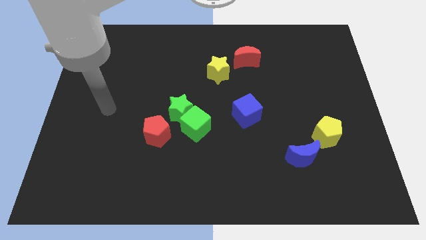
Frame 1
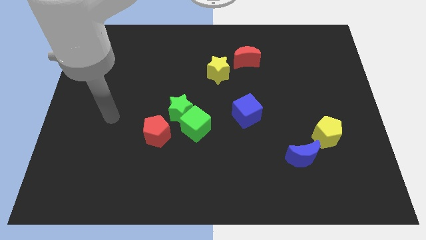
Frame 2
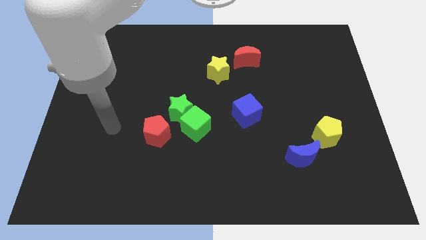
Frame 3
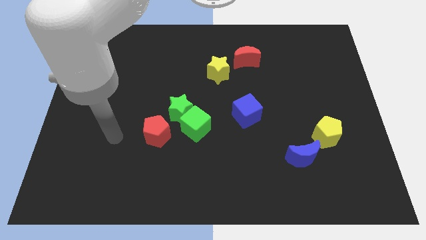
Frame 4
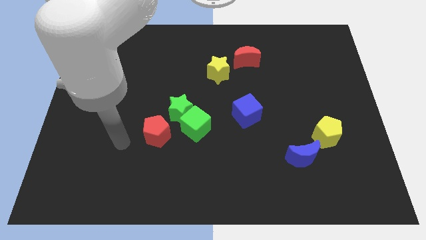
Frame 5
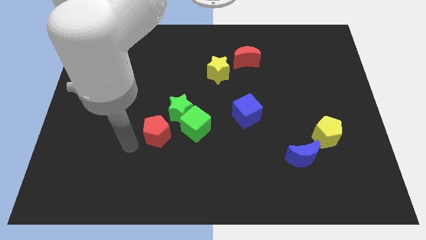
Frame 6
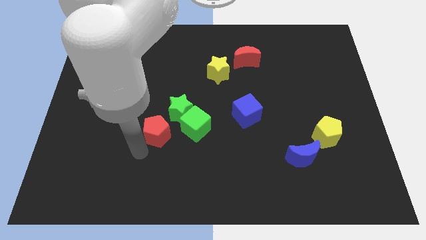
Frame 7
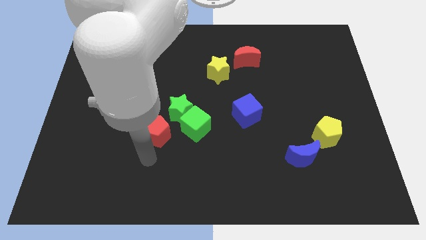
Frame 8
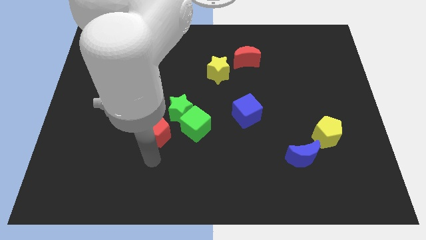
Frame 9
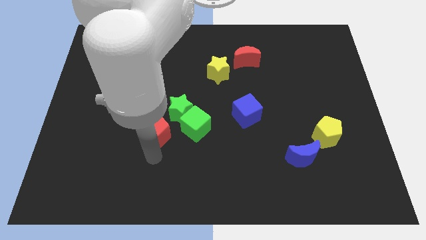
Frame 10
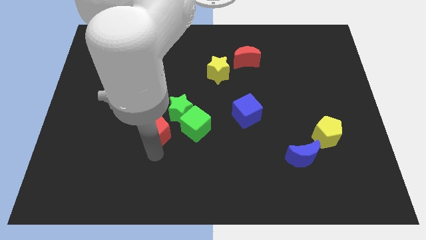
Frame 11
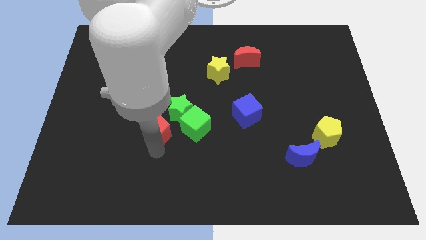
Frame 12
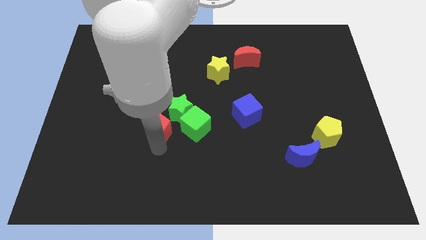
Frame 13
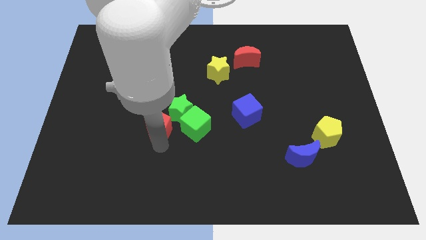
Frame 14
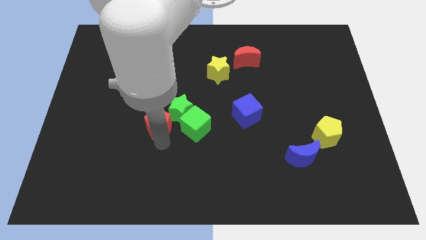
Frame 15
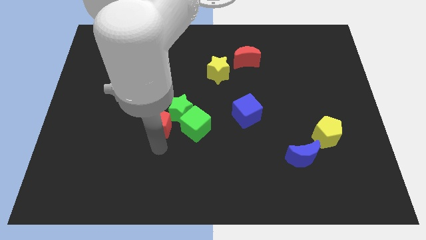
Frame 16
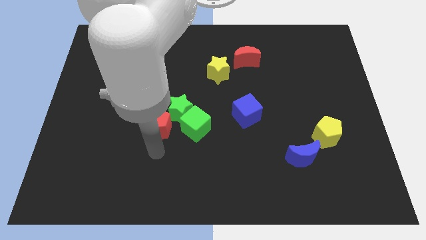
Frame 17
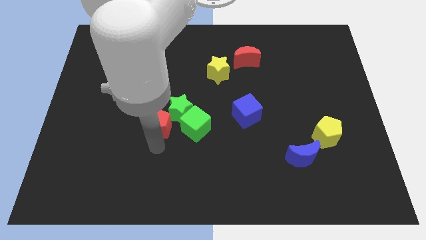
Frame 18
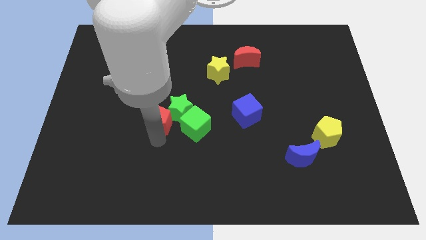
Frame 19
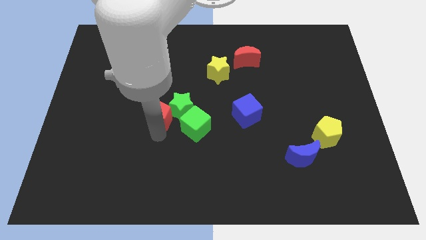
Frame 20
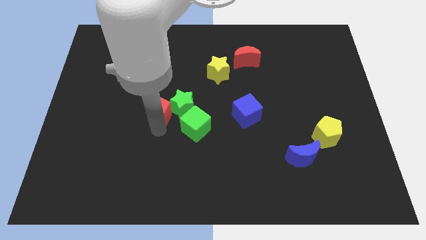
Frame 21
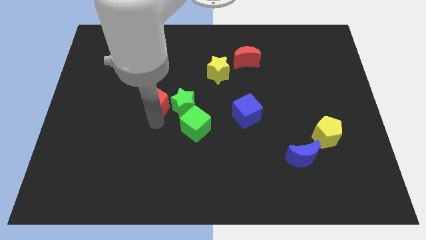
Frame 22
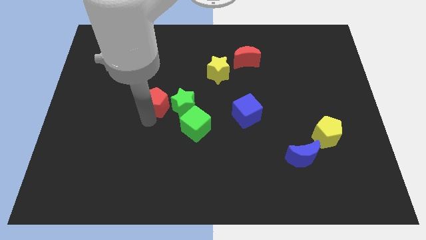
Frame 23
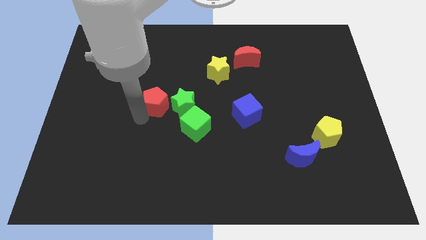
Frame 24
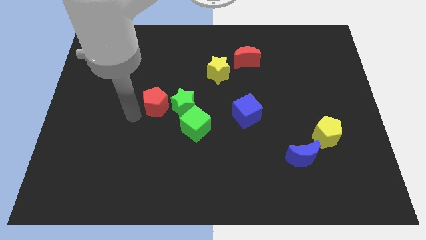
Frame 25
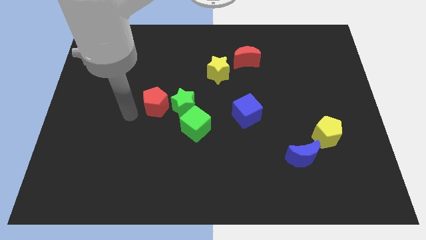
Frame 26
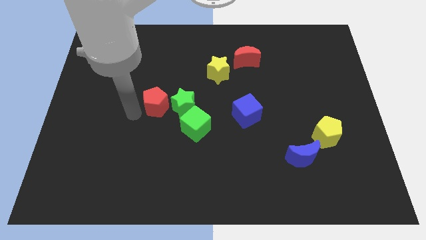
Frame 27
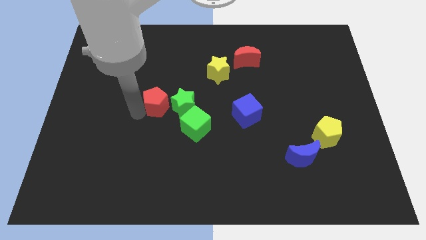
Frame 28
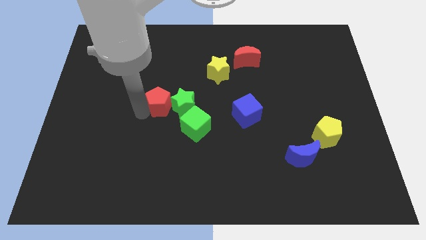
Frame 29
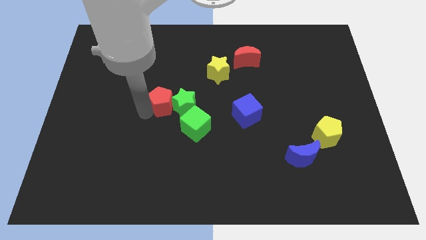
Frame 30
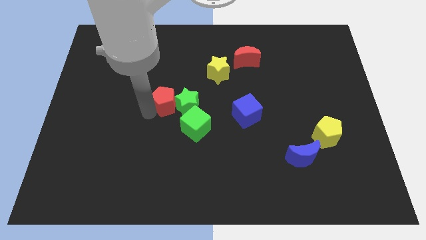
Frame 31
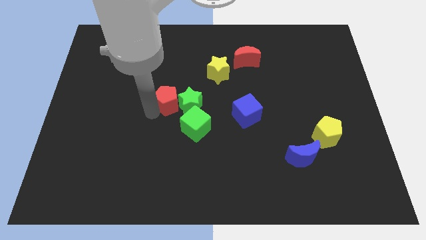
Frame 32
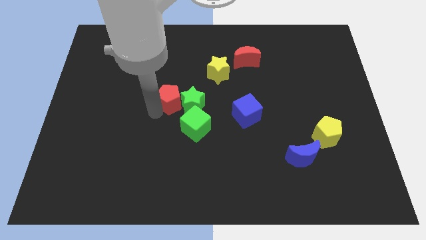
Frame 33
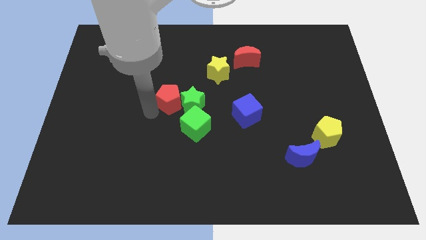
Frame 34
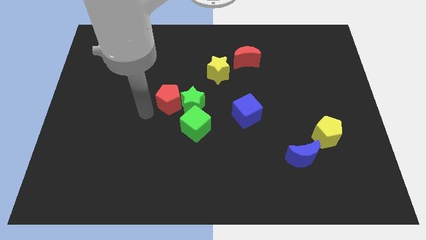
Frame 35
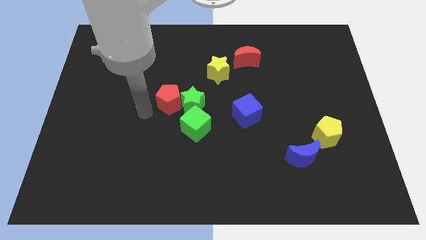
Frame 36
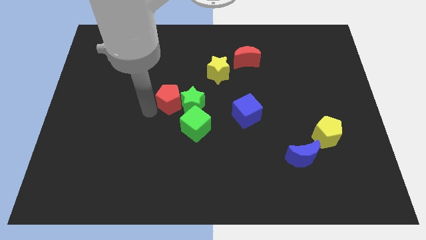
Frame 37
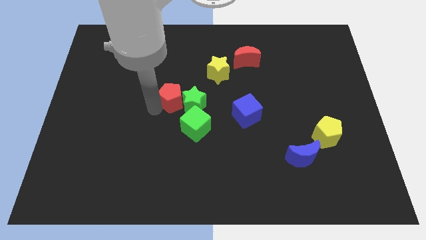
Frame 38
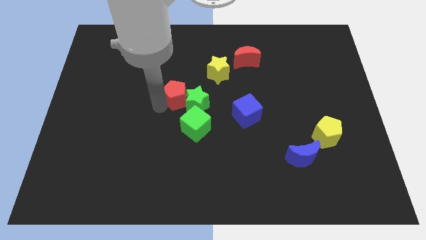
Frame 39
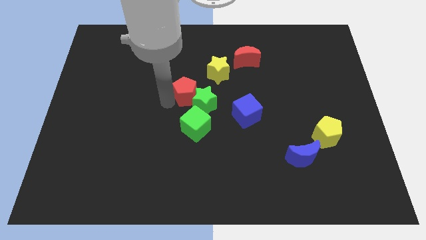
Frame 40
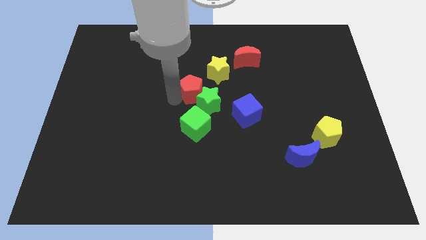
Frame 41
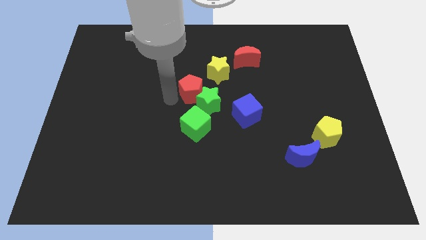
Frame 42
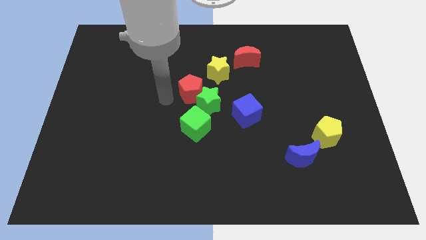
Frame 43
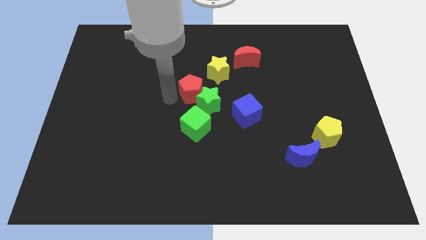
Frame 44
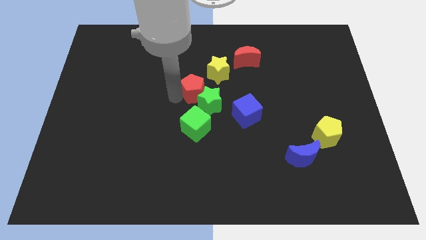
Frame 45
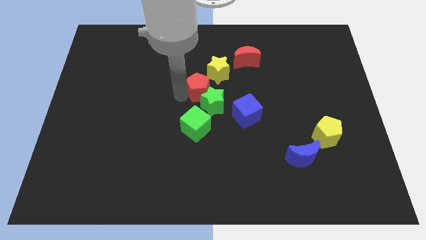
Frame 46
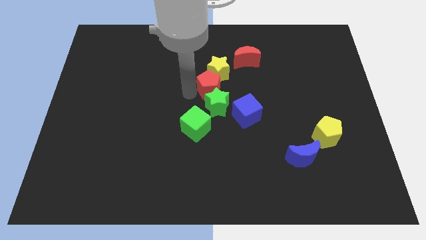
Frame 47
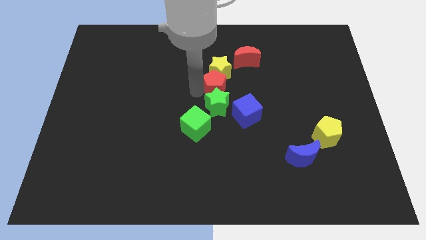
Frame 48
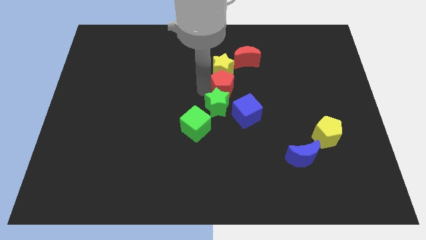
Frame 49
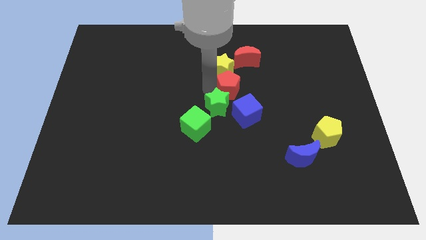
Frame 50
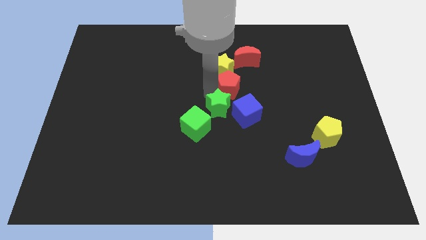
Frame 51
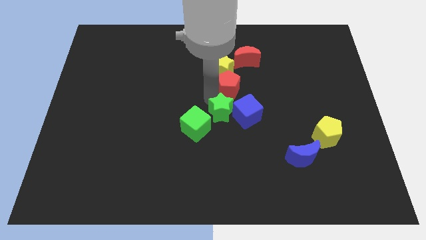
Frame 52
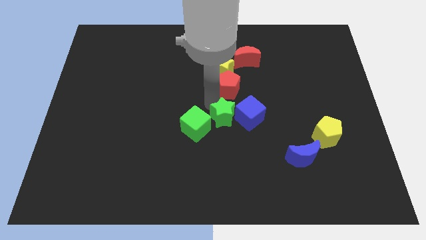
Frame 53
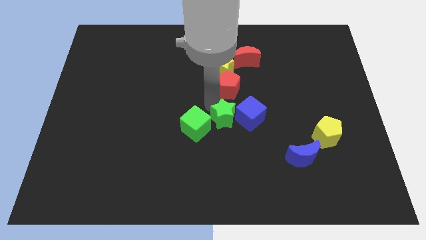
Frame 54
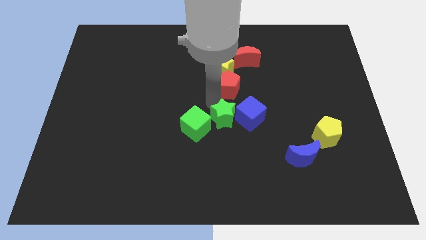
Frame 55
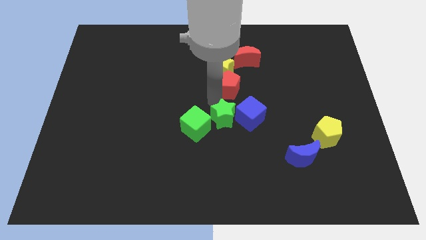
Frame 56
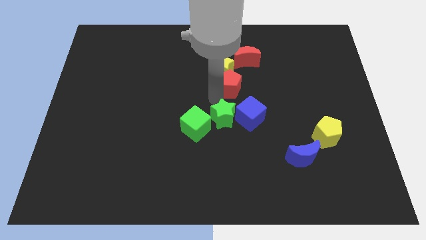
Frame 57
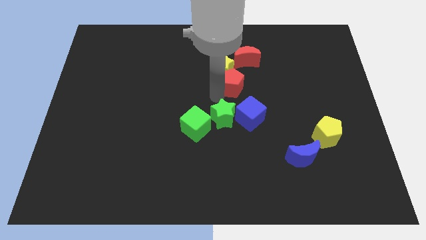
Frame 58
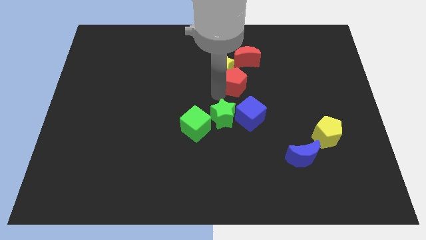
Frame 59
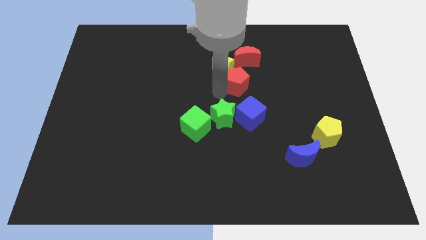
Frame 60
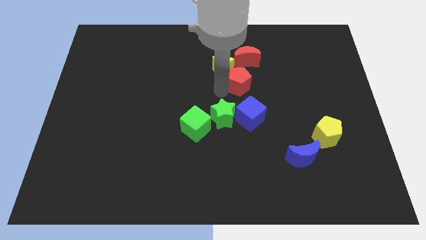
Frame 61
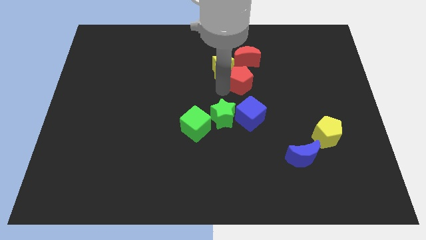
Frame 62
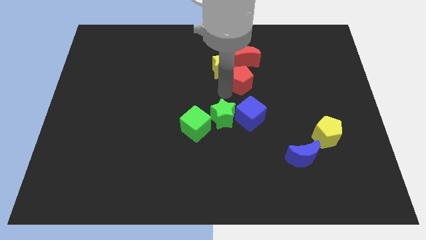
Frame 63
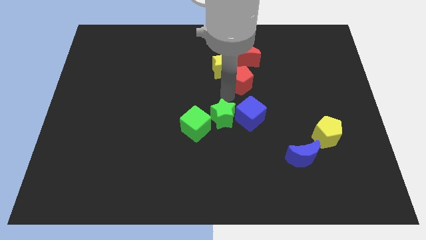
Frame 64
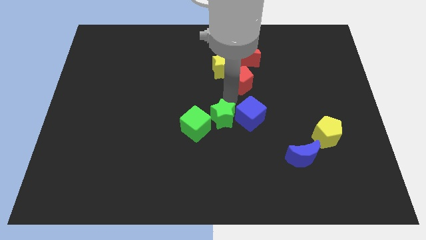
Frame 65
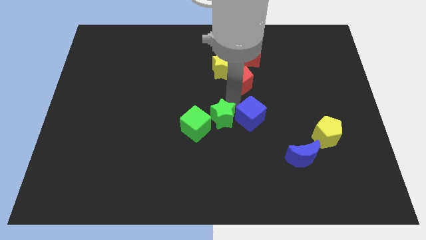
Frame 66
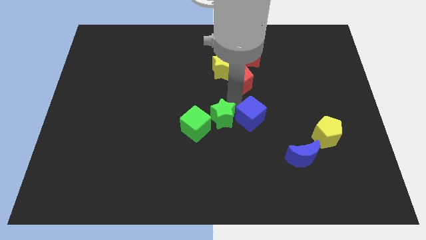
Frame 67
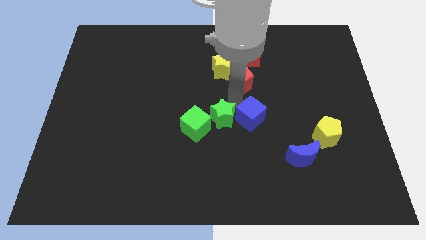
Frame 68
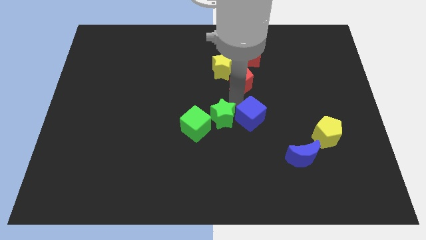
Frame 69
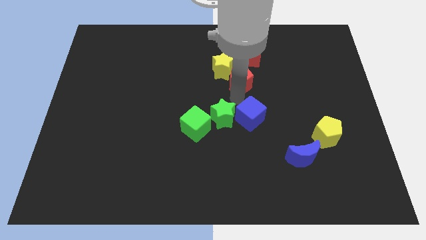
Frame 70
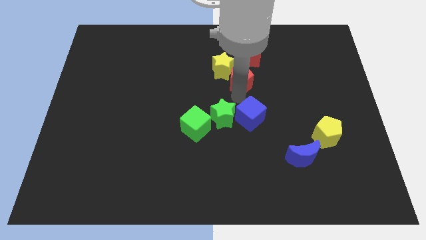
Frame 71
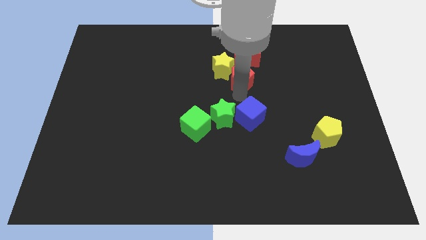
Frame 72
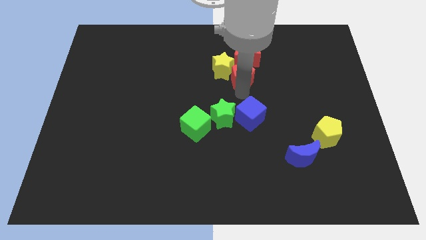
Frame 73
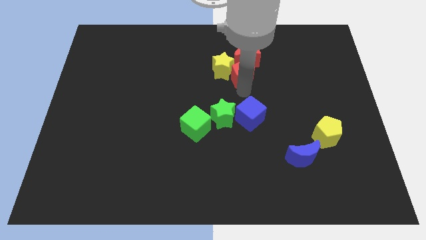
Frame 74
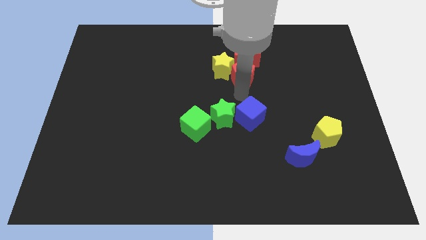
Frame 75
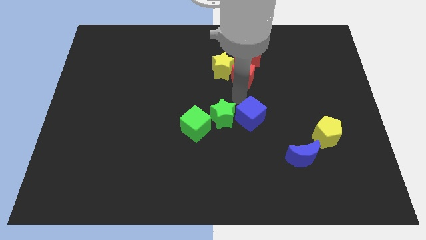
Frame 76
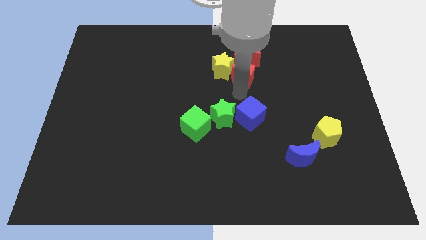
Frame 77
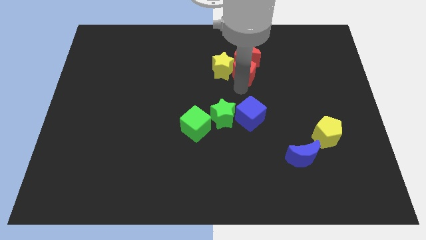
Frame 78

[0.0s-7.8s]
move the red pentagon next to the red moon
